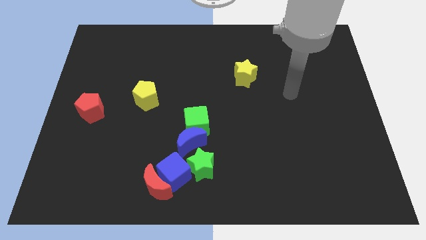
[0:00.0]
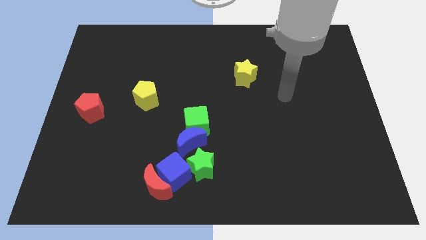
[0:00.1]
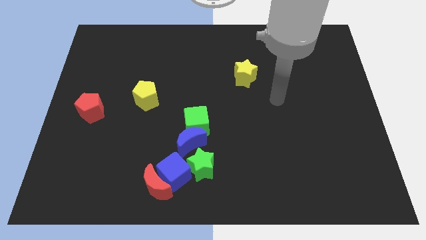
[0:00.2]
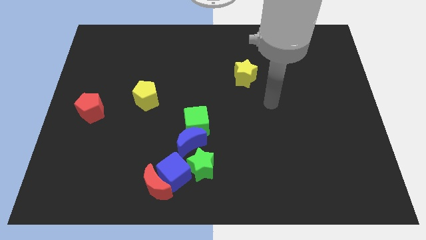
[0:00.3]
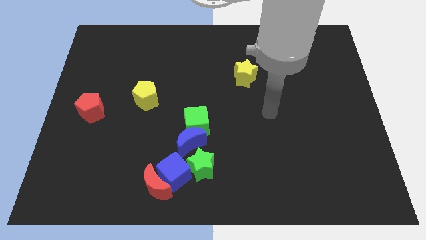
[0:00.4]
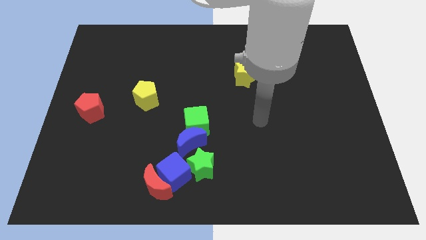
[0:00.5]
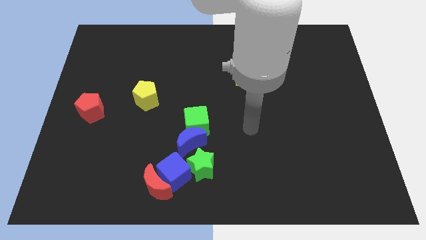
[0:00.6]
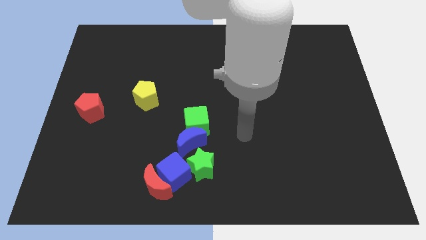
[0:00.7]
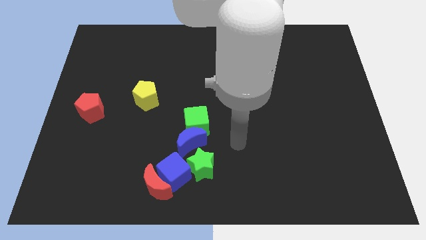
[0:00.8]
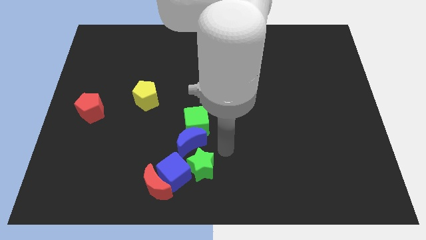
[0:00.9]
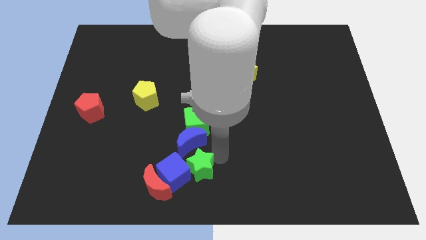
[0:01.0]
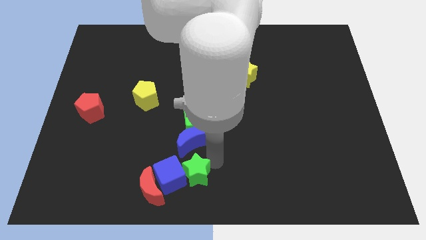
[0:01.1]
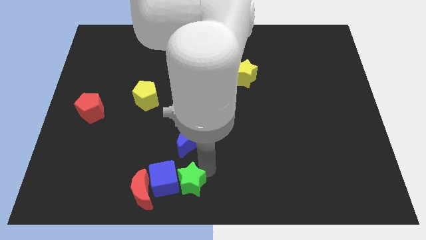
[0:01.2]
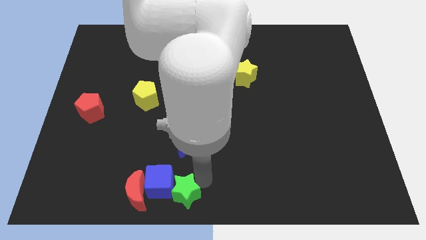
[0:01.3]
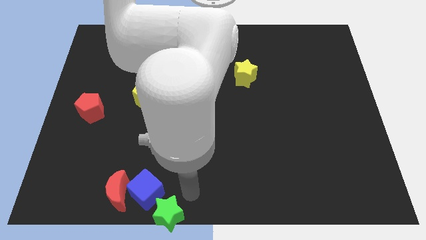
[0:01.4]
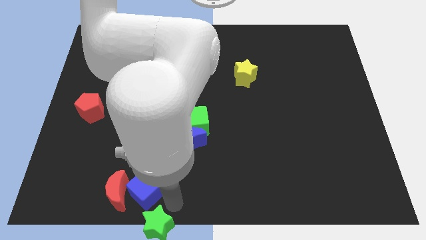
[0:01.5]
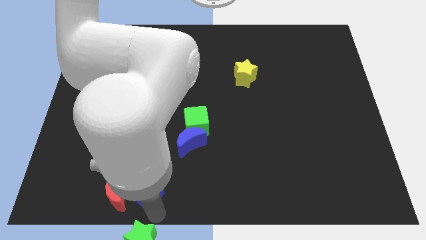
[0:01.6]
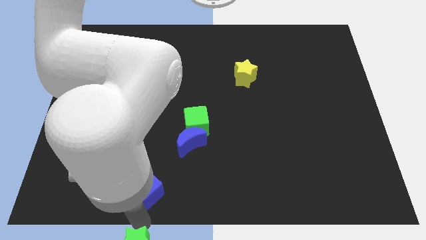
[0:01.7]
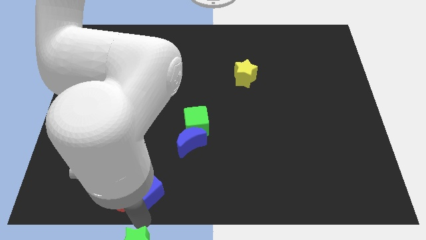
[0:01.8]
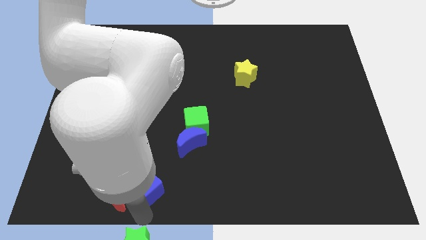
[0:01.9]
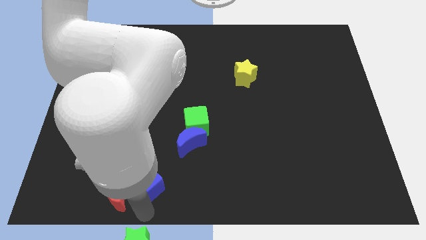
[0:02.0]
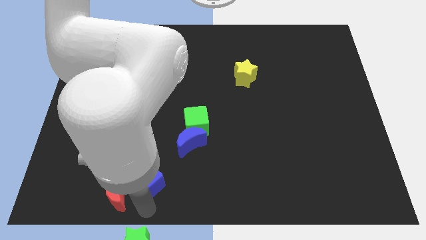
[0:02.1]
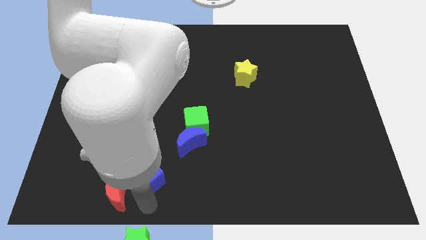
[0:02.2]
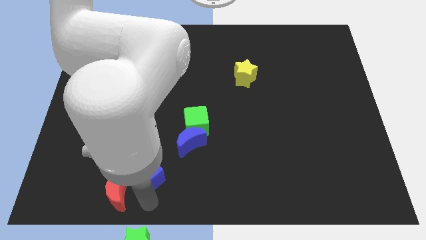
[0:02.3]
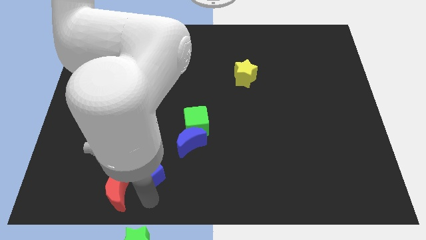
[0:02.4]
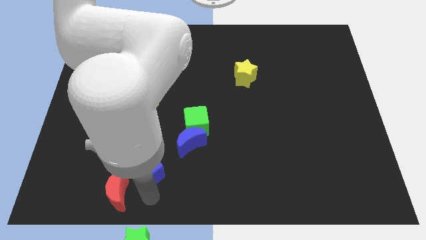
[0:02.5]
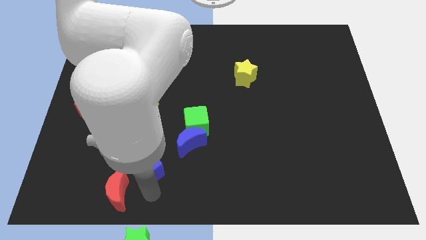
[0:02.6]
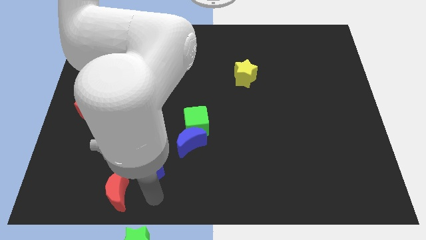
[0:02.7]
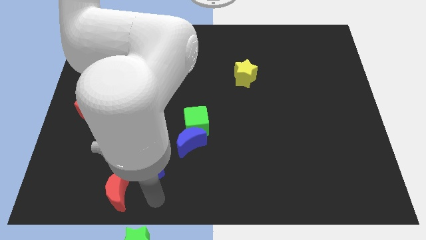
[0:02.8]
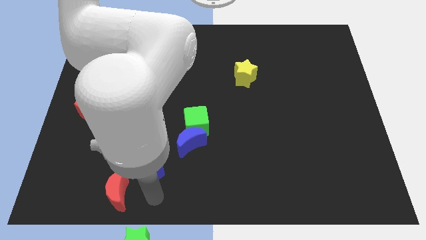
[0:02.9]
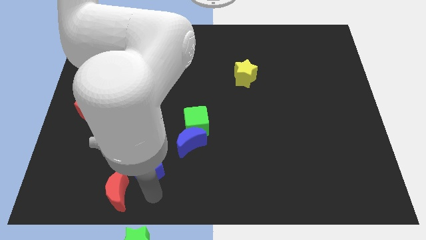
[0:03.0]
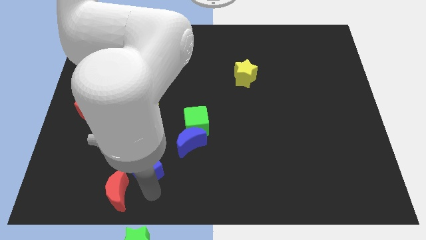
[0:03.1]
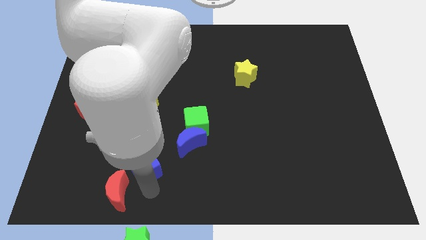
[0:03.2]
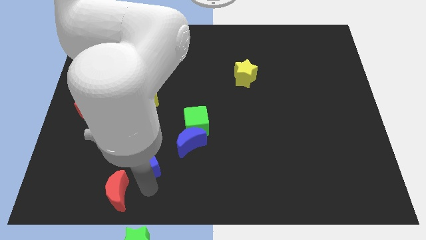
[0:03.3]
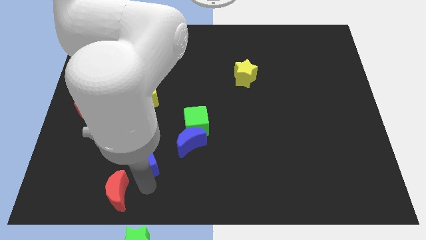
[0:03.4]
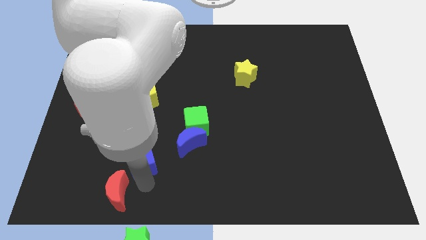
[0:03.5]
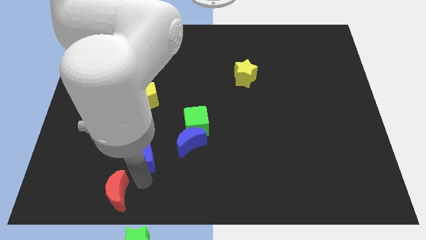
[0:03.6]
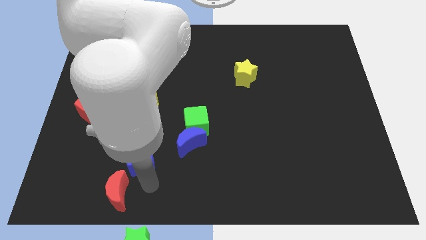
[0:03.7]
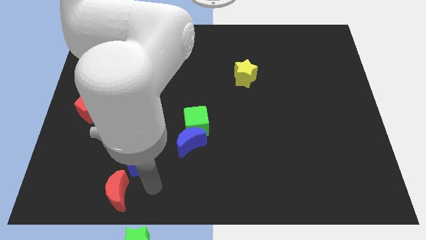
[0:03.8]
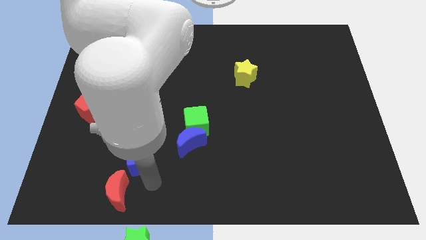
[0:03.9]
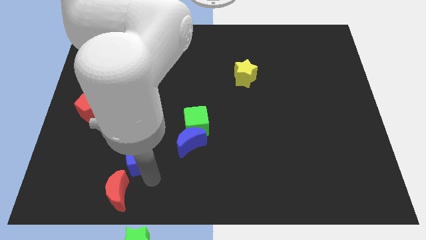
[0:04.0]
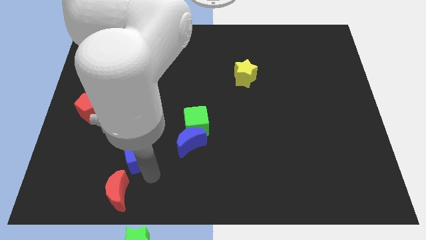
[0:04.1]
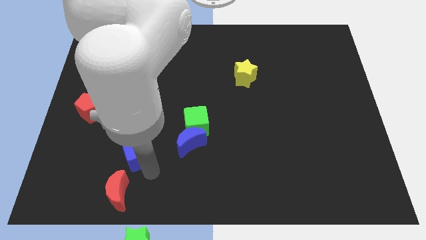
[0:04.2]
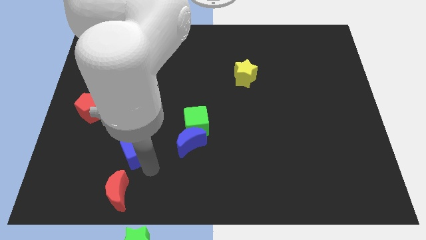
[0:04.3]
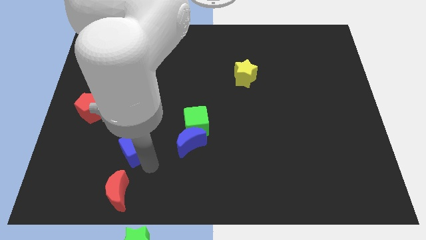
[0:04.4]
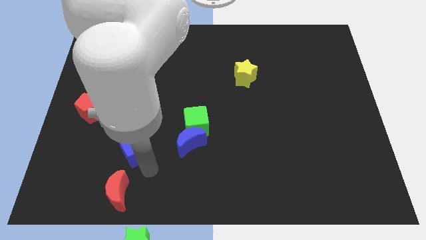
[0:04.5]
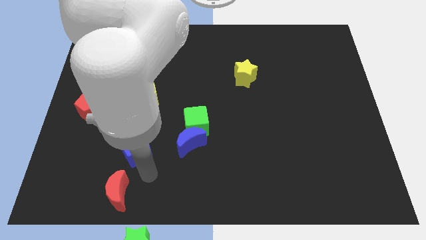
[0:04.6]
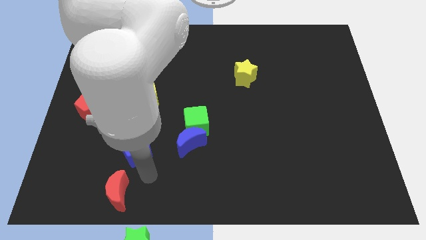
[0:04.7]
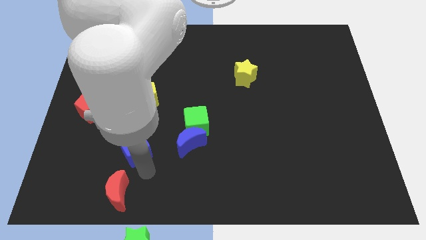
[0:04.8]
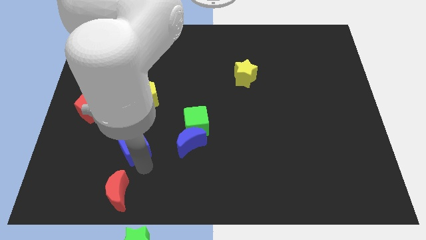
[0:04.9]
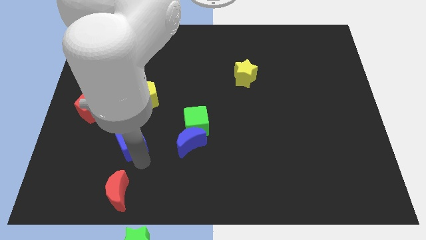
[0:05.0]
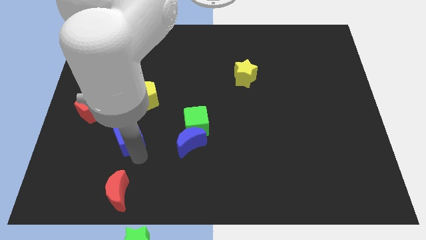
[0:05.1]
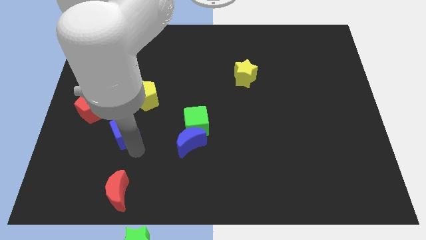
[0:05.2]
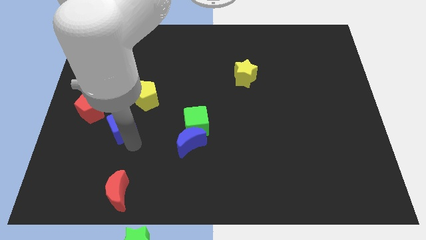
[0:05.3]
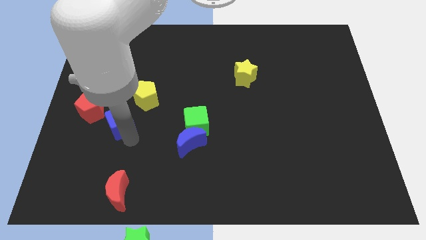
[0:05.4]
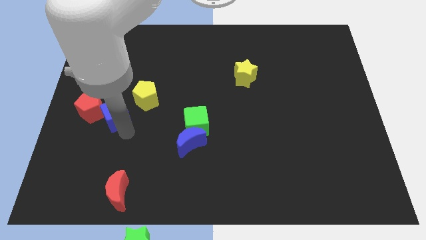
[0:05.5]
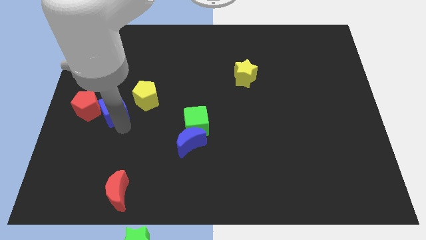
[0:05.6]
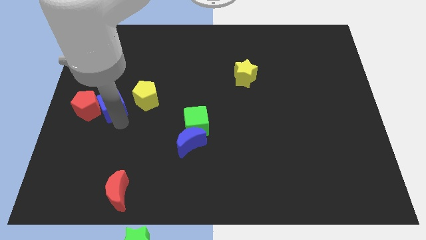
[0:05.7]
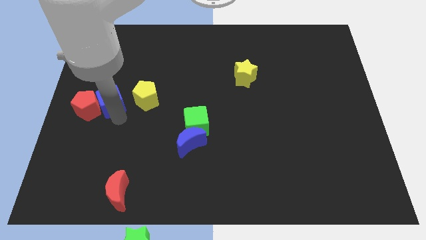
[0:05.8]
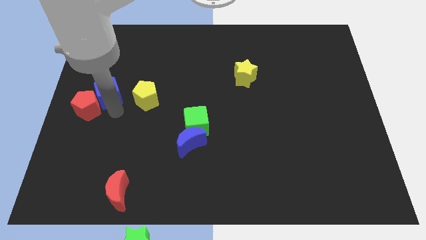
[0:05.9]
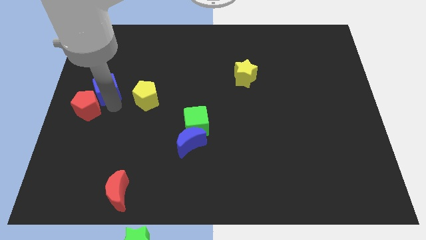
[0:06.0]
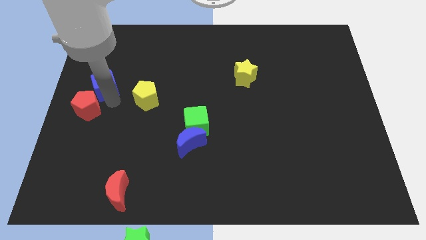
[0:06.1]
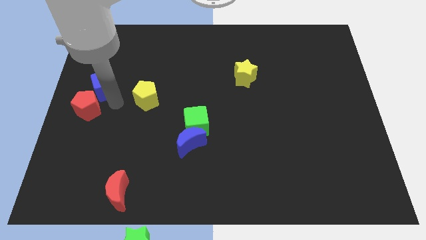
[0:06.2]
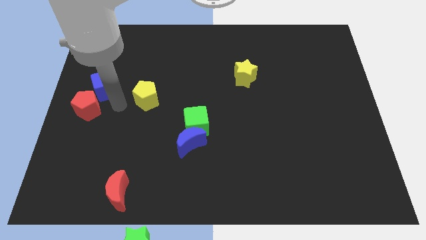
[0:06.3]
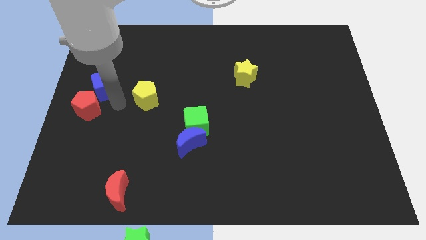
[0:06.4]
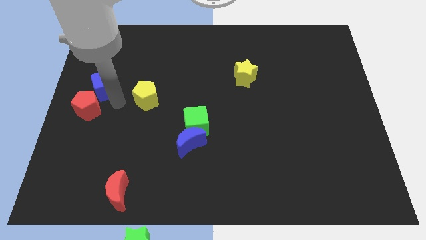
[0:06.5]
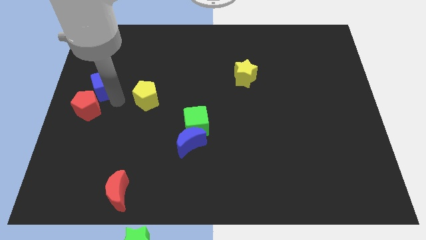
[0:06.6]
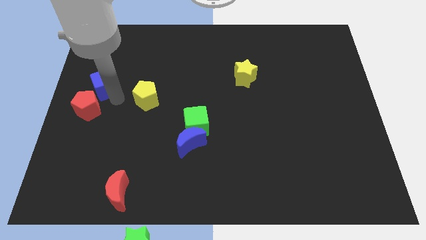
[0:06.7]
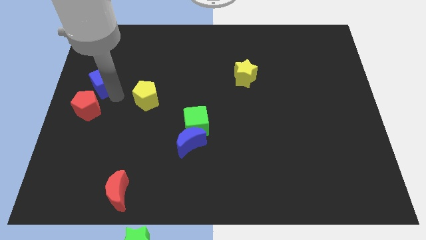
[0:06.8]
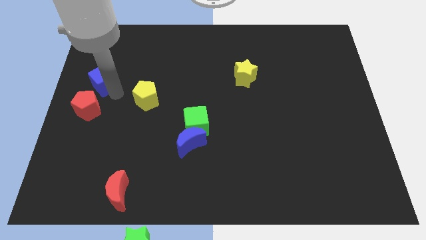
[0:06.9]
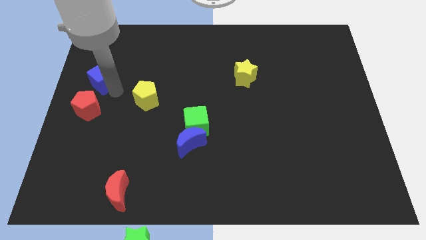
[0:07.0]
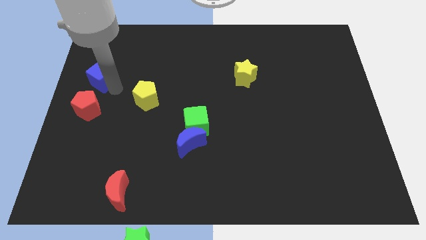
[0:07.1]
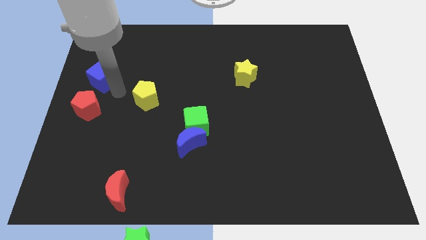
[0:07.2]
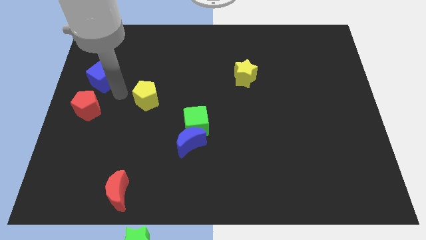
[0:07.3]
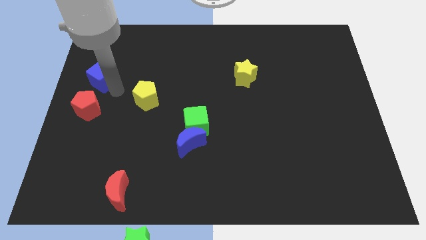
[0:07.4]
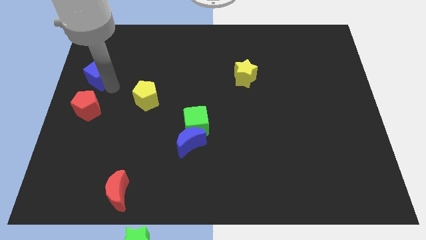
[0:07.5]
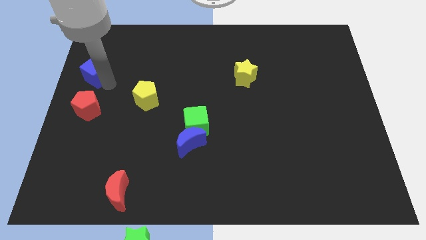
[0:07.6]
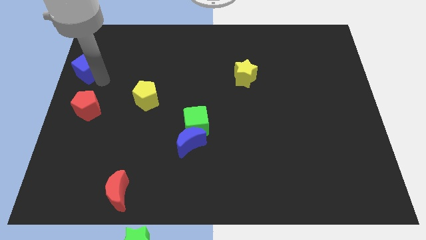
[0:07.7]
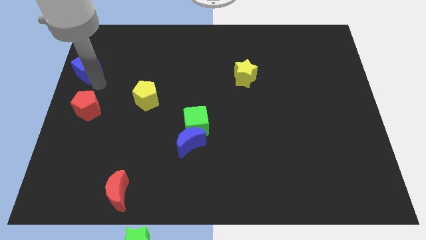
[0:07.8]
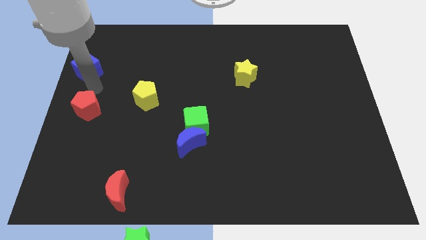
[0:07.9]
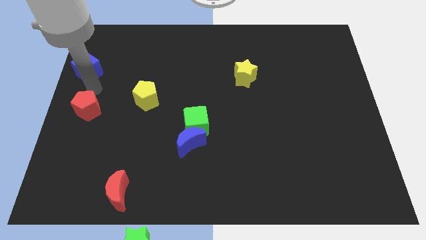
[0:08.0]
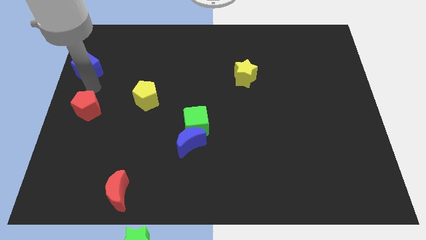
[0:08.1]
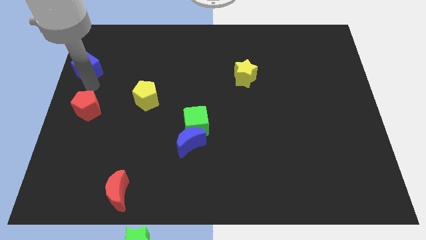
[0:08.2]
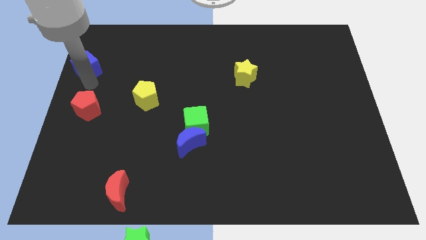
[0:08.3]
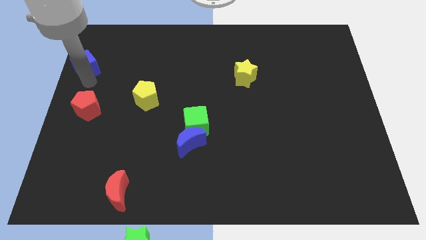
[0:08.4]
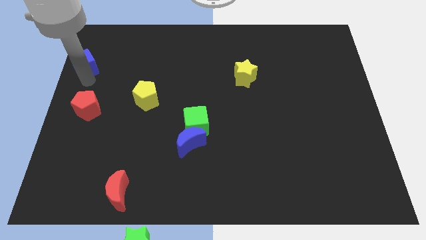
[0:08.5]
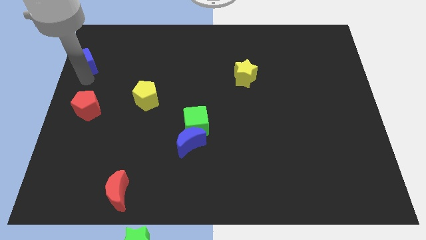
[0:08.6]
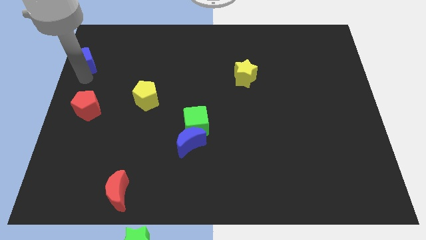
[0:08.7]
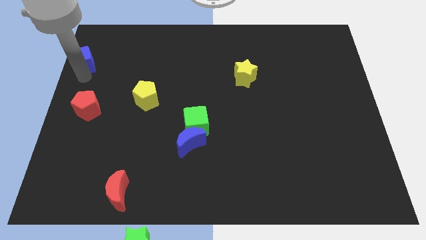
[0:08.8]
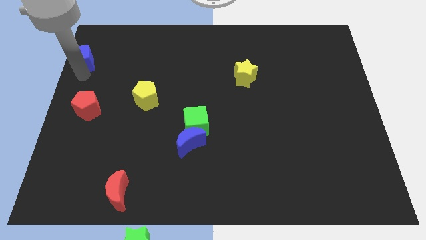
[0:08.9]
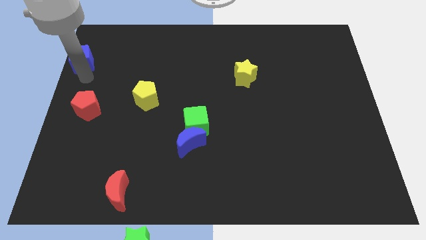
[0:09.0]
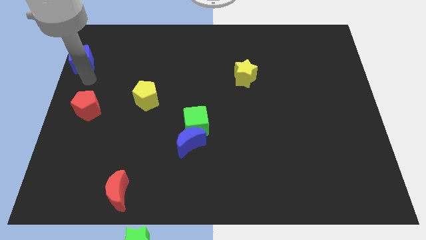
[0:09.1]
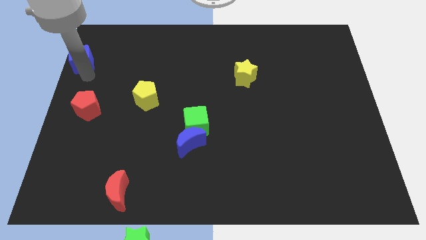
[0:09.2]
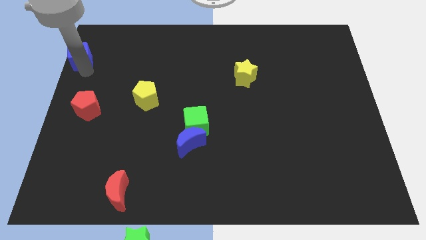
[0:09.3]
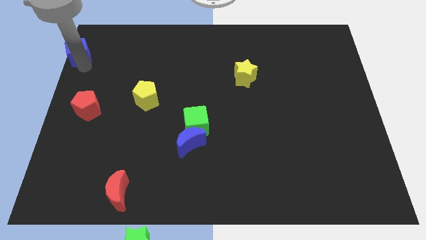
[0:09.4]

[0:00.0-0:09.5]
move the blue cube to the top left corner
